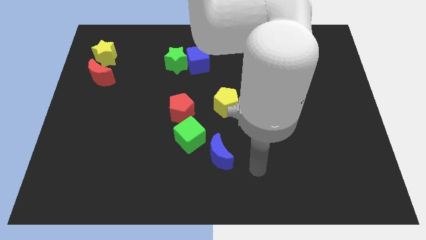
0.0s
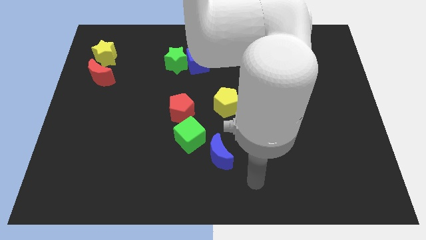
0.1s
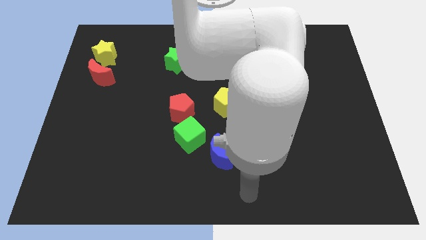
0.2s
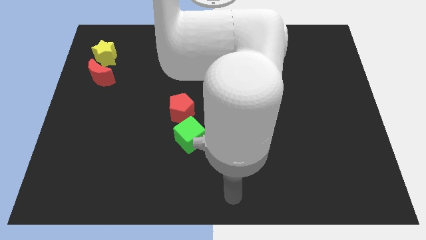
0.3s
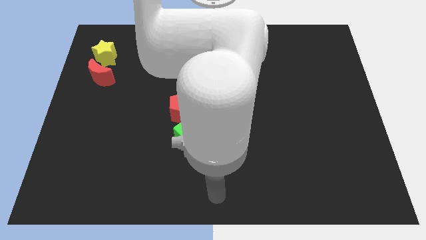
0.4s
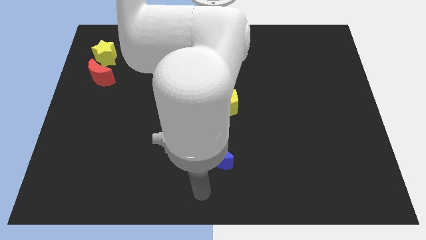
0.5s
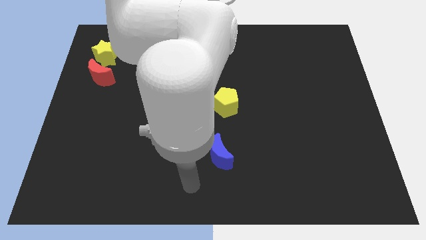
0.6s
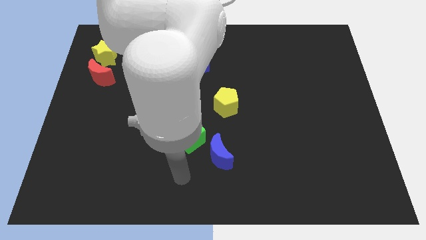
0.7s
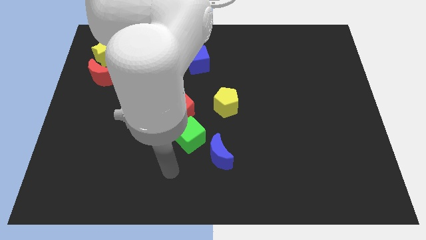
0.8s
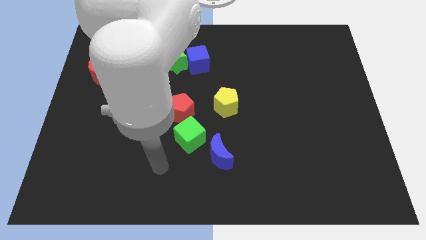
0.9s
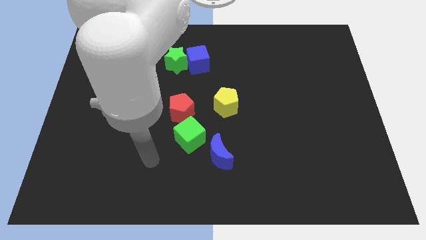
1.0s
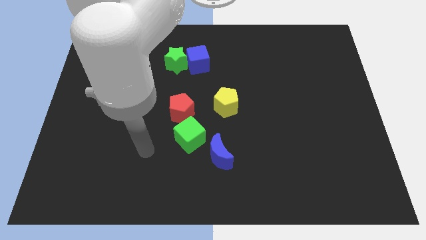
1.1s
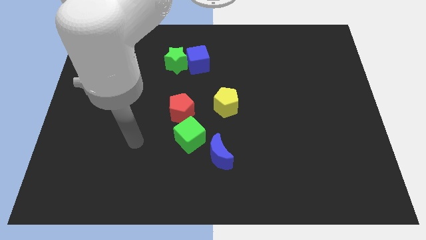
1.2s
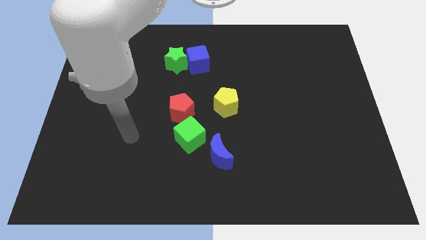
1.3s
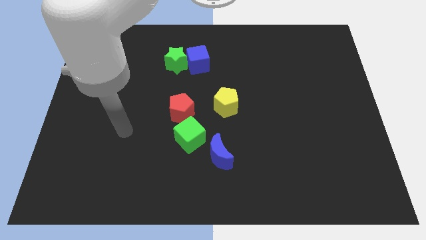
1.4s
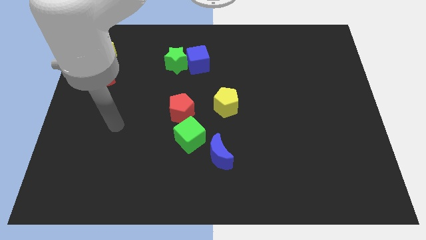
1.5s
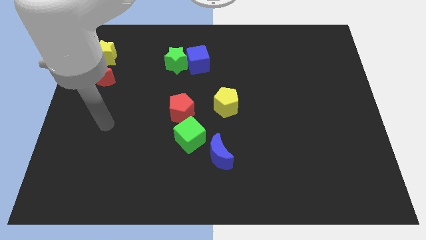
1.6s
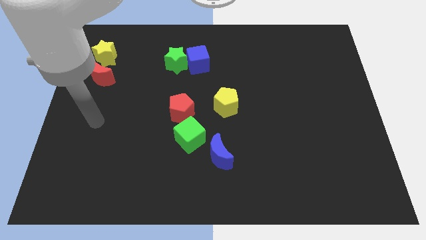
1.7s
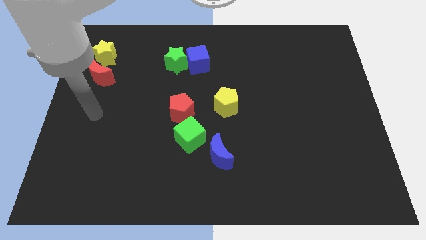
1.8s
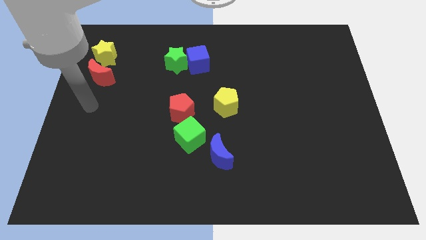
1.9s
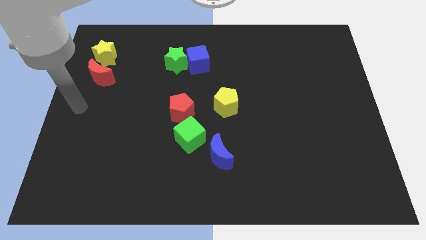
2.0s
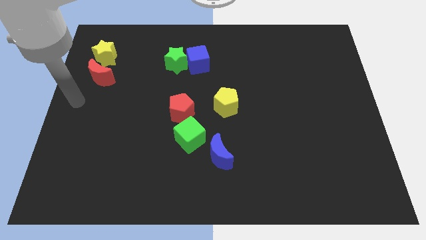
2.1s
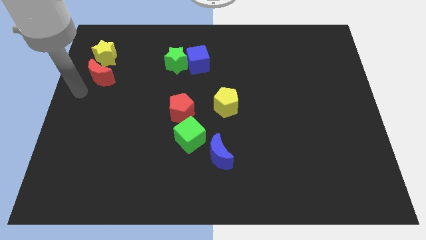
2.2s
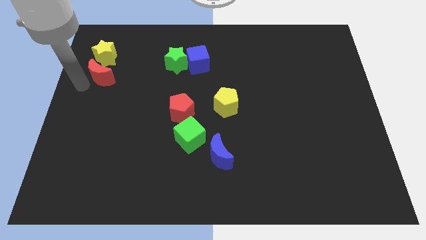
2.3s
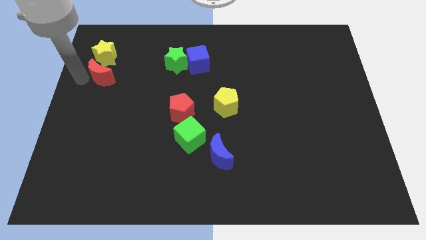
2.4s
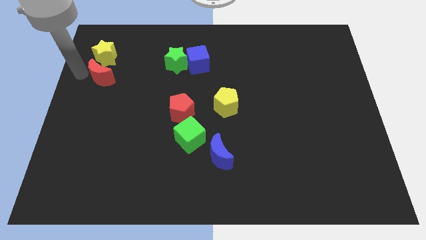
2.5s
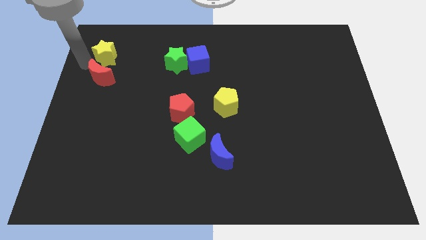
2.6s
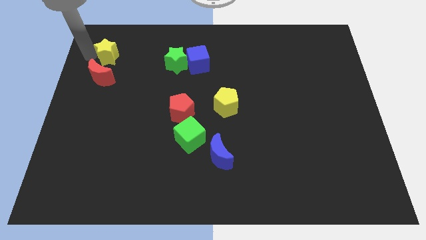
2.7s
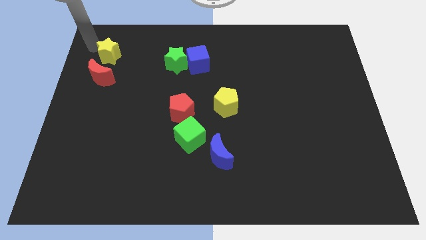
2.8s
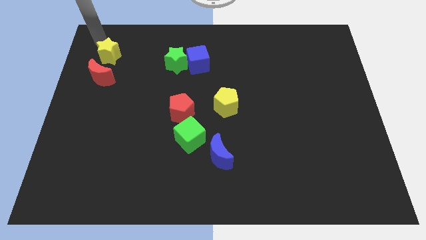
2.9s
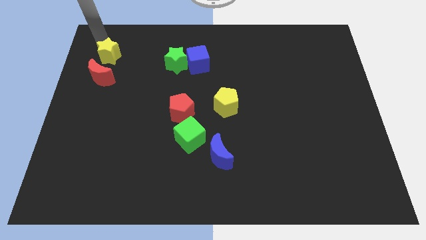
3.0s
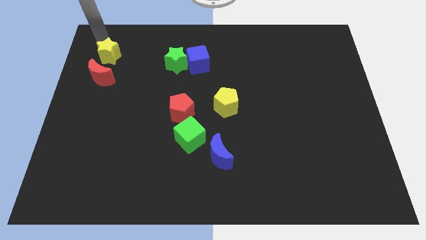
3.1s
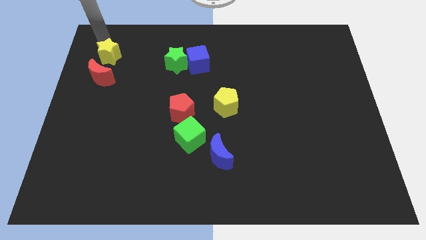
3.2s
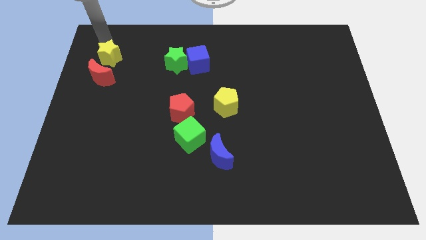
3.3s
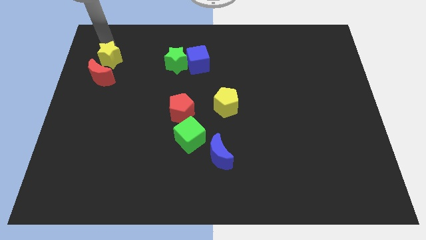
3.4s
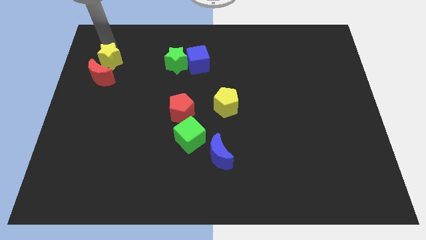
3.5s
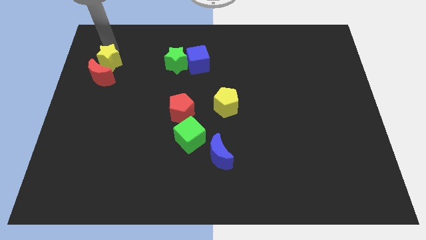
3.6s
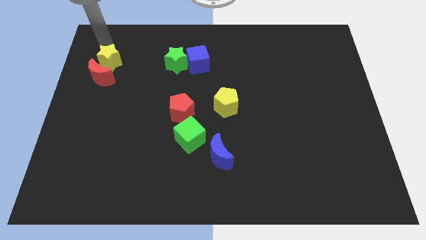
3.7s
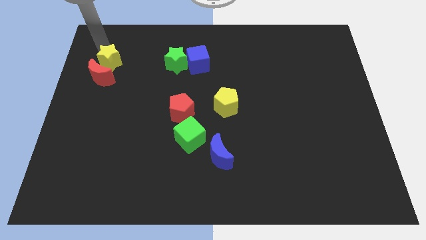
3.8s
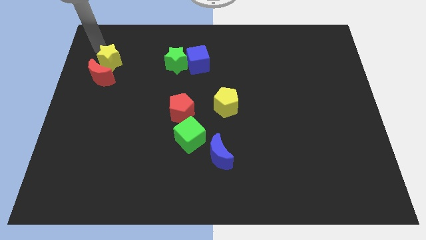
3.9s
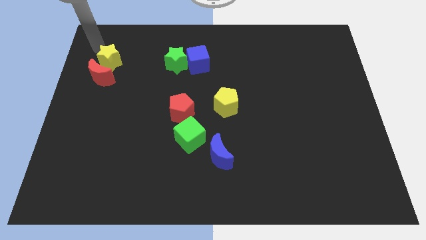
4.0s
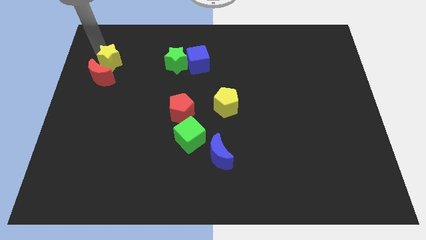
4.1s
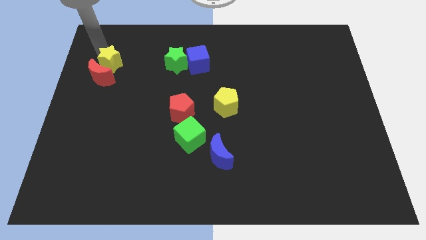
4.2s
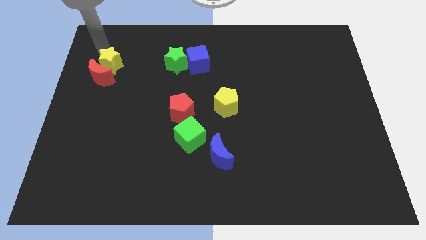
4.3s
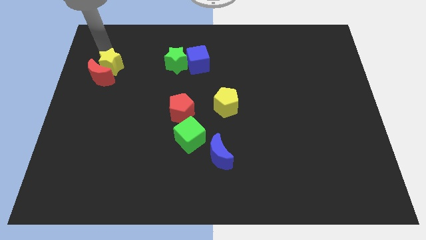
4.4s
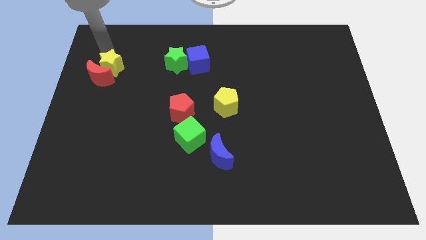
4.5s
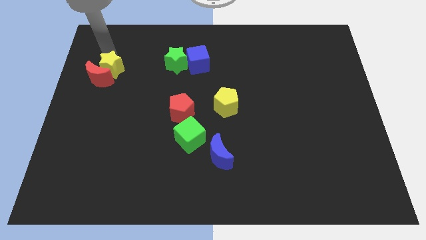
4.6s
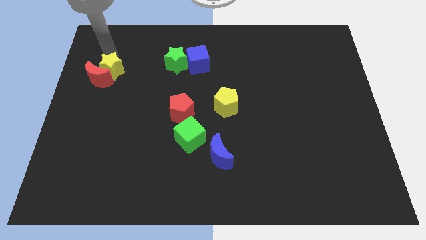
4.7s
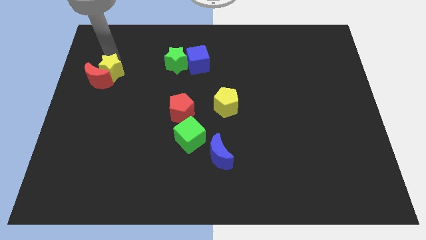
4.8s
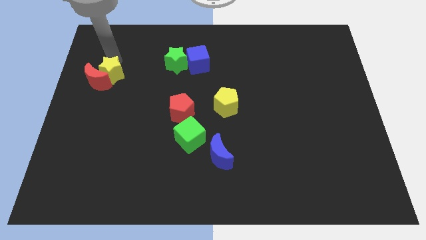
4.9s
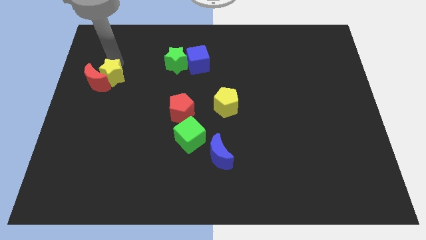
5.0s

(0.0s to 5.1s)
slide the yellow star to the bottom right of the red moon

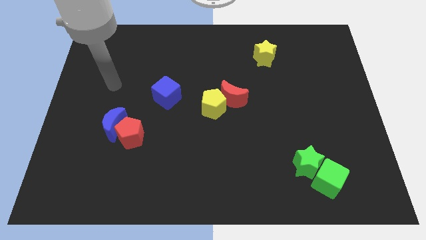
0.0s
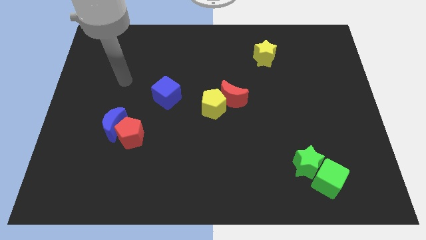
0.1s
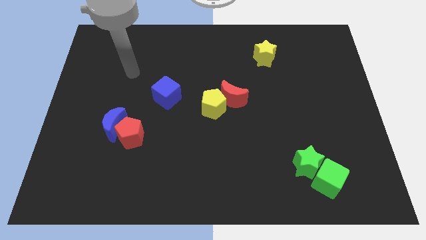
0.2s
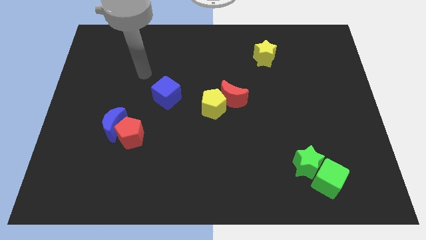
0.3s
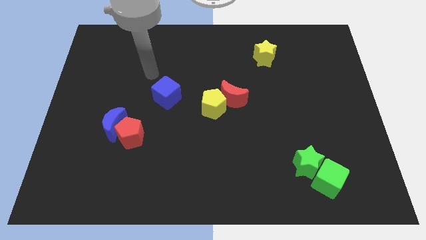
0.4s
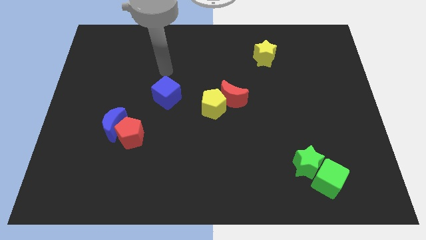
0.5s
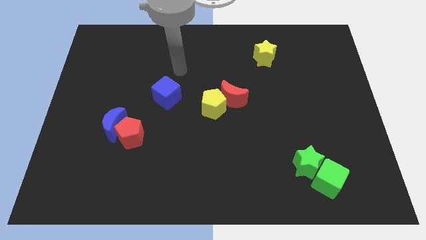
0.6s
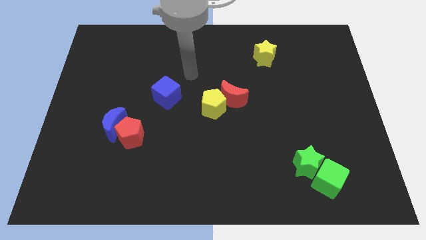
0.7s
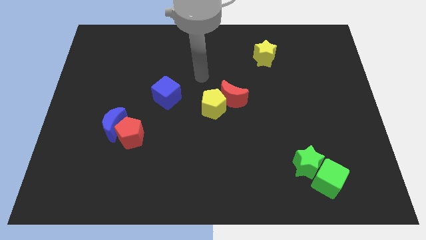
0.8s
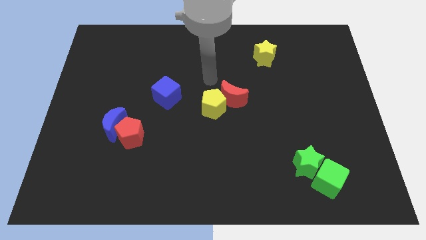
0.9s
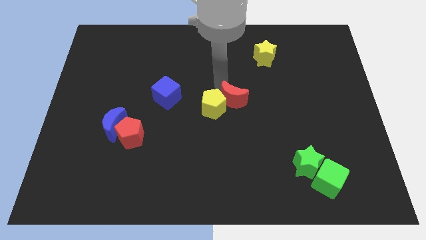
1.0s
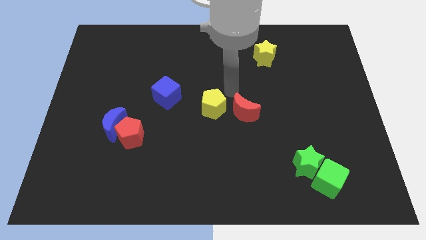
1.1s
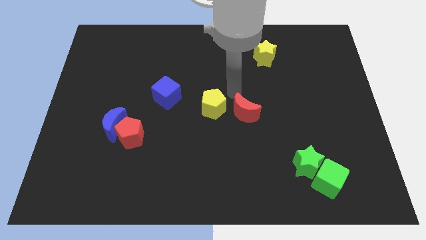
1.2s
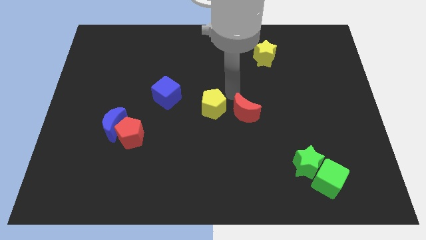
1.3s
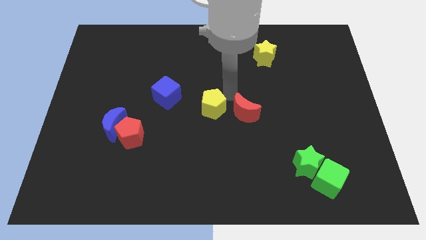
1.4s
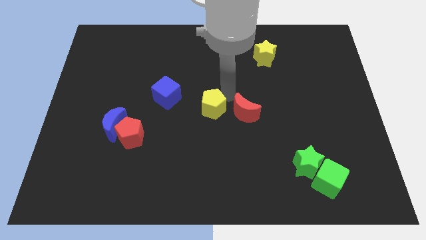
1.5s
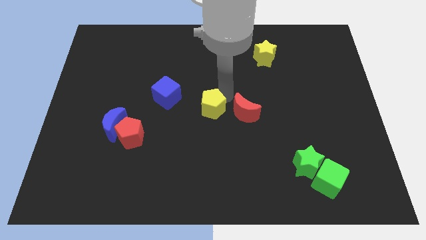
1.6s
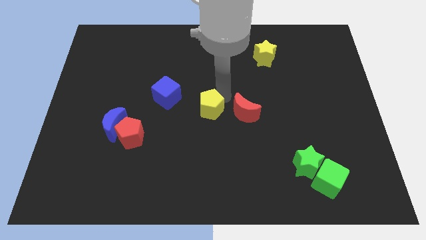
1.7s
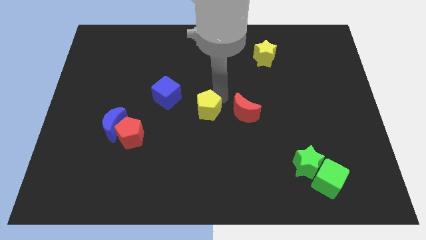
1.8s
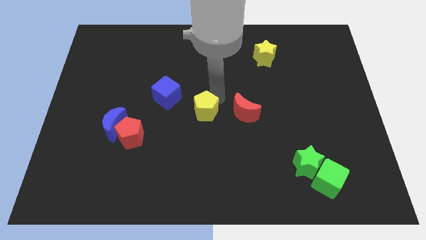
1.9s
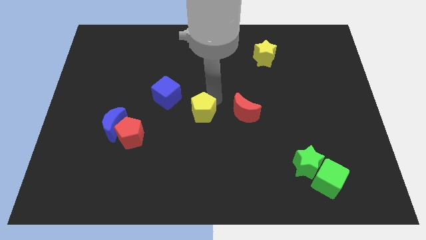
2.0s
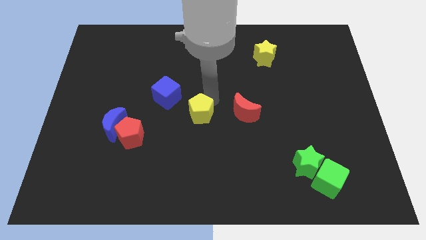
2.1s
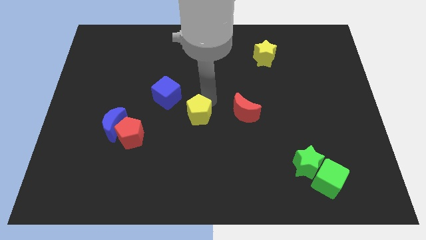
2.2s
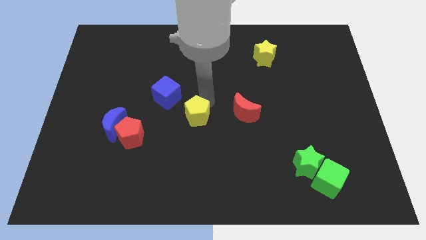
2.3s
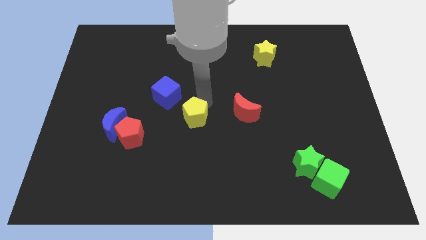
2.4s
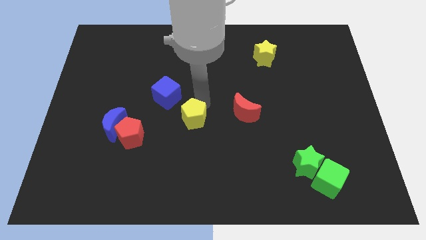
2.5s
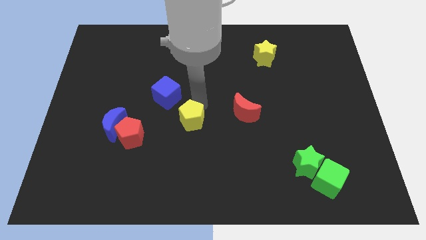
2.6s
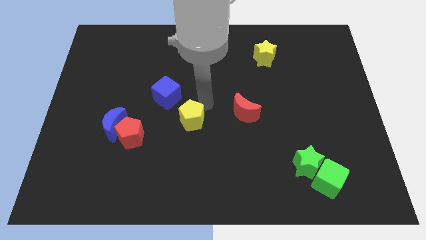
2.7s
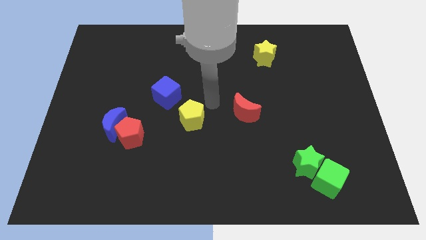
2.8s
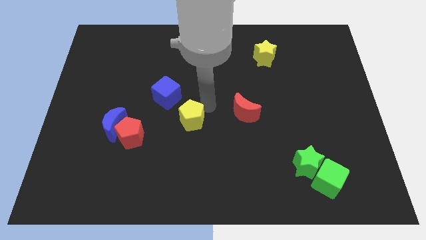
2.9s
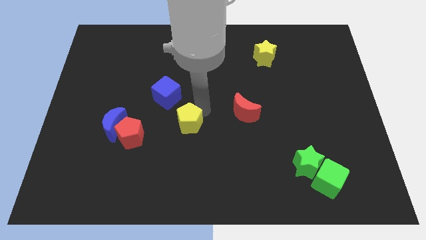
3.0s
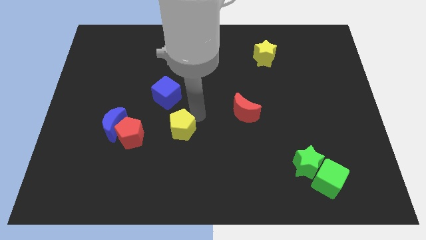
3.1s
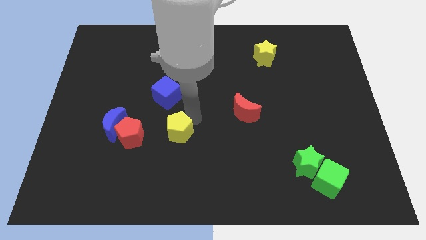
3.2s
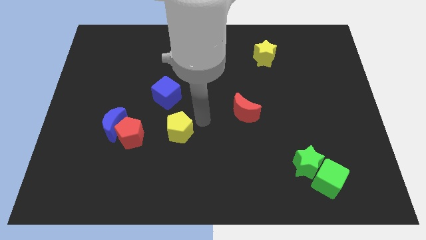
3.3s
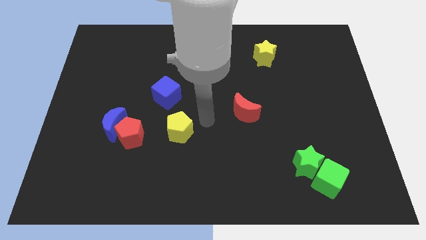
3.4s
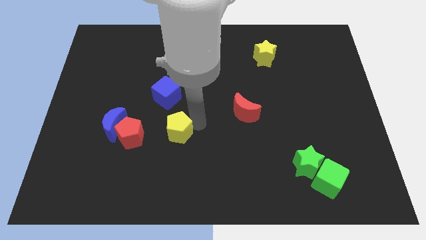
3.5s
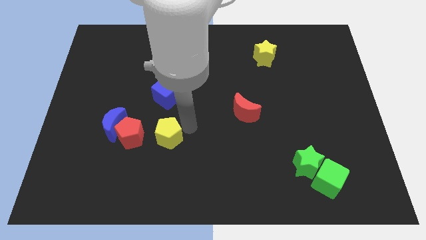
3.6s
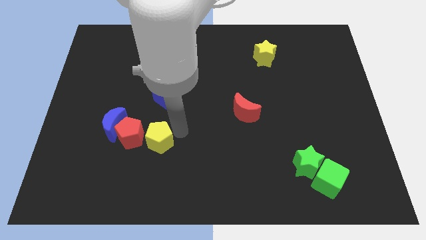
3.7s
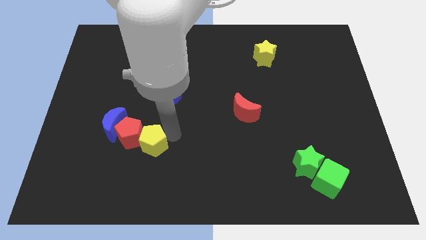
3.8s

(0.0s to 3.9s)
slide the yellow pentagon diagonally down and to the right of the blue moon
